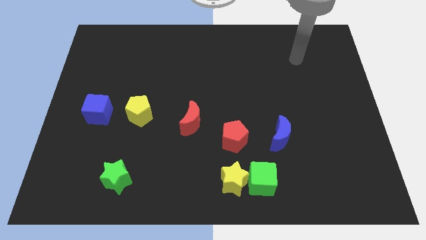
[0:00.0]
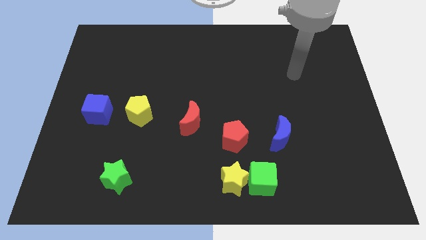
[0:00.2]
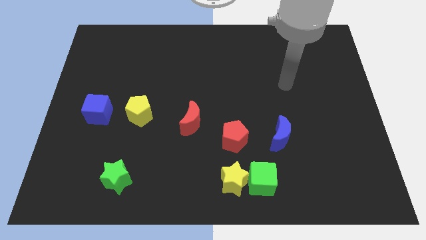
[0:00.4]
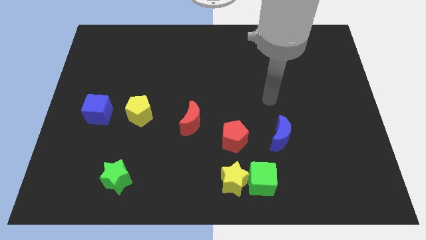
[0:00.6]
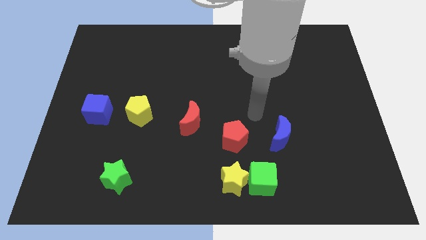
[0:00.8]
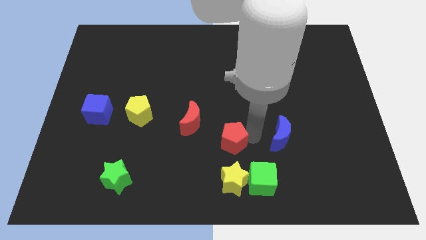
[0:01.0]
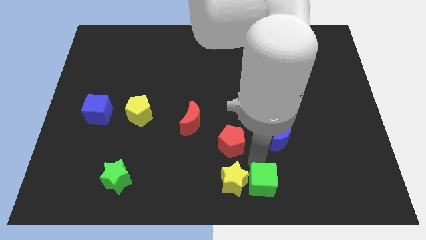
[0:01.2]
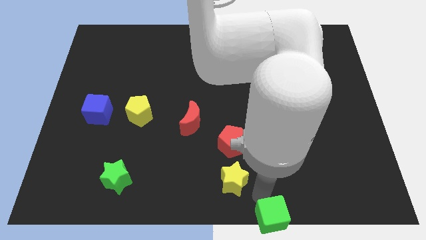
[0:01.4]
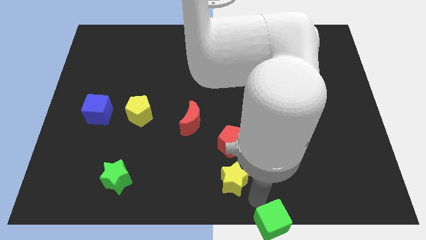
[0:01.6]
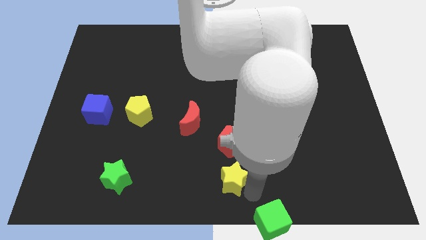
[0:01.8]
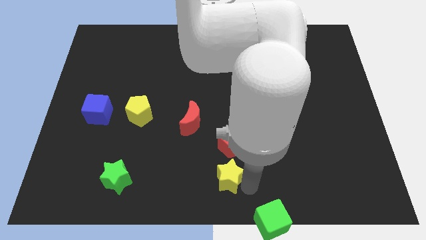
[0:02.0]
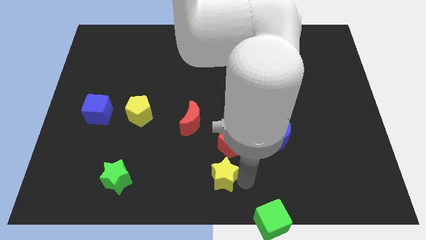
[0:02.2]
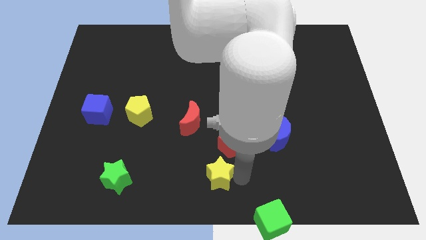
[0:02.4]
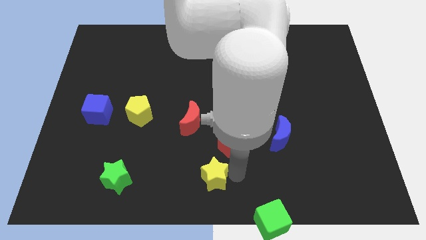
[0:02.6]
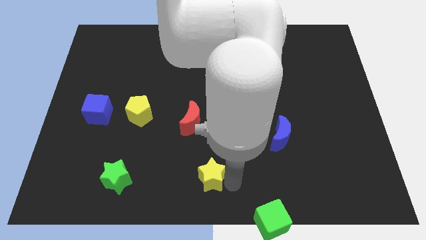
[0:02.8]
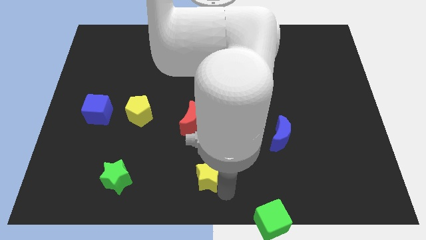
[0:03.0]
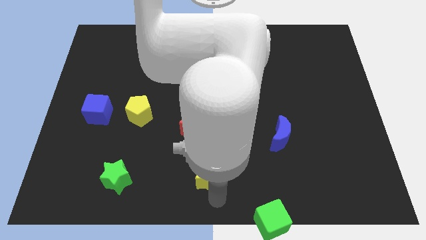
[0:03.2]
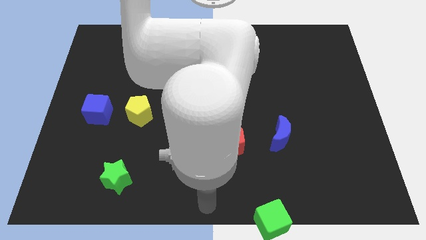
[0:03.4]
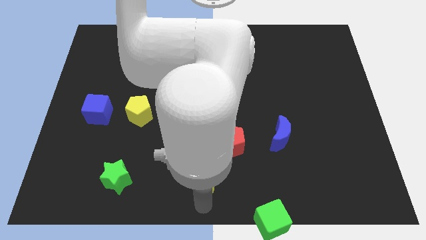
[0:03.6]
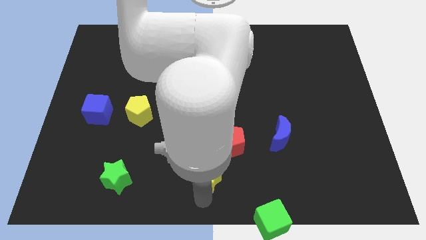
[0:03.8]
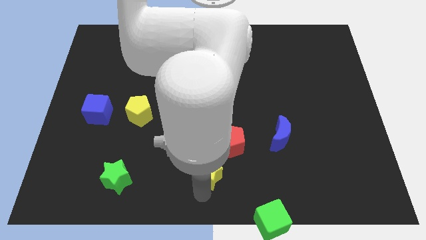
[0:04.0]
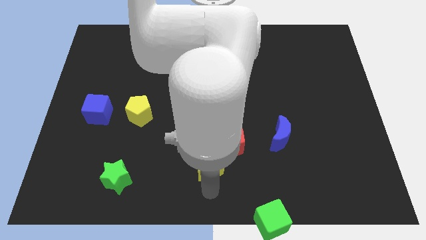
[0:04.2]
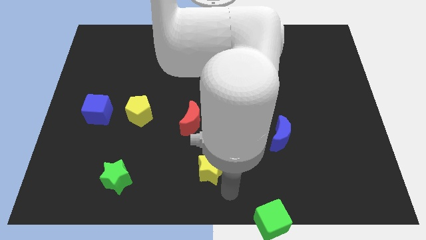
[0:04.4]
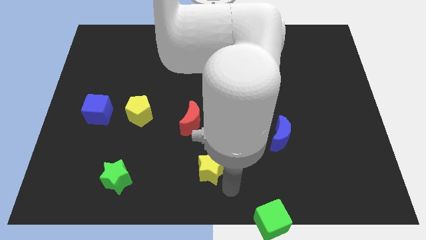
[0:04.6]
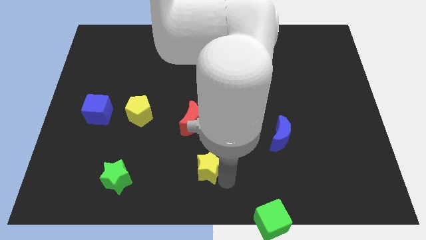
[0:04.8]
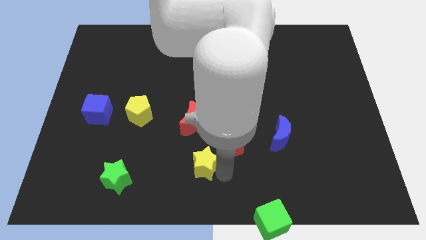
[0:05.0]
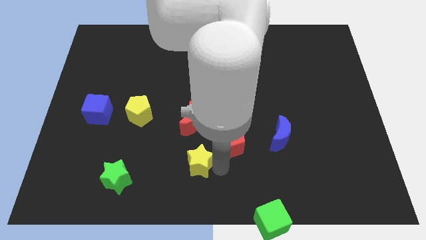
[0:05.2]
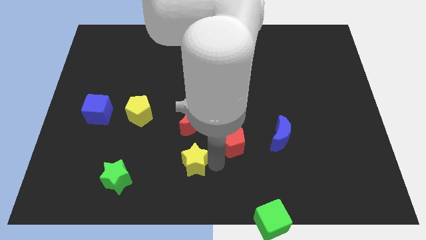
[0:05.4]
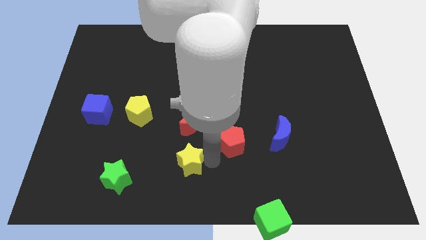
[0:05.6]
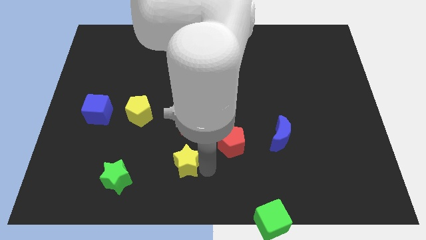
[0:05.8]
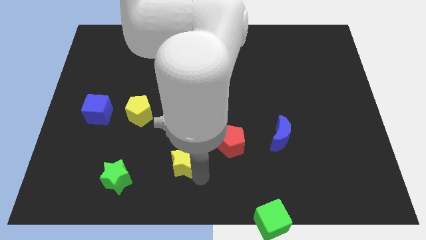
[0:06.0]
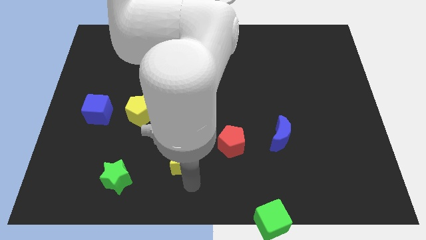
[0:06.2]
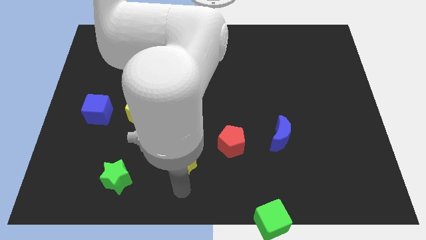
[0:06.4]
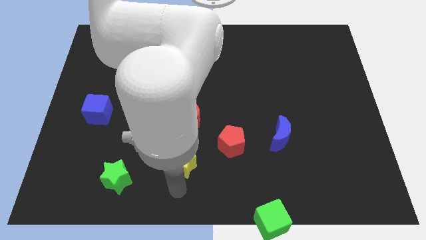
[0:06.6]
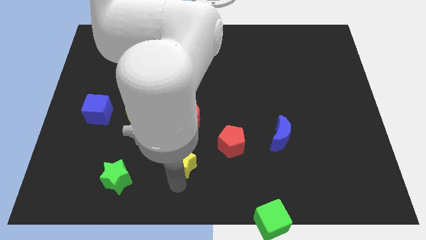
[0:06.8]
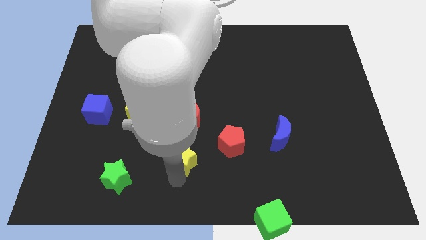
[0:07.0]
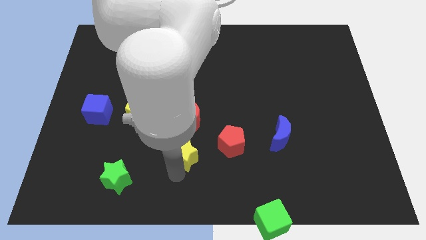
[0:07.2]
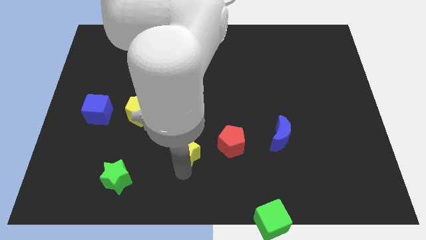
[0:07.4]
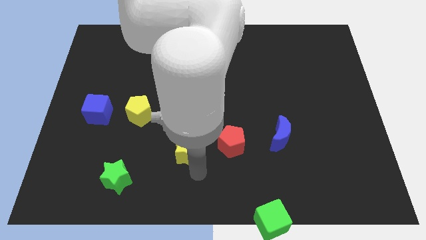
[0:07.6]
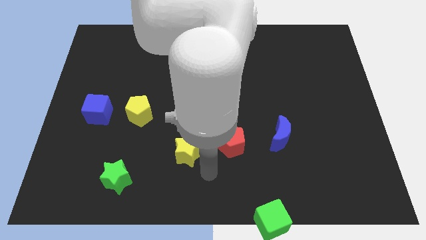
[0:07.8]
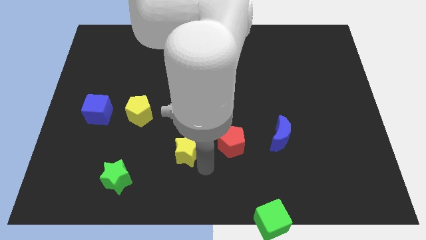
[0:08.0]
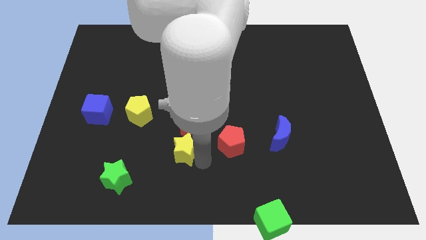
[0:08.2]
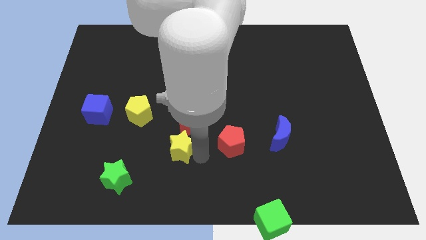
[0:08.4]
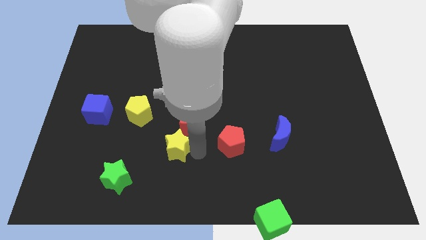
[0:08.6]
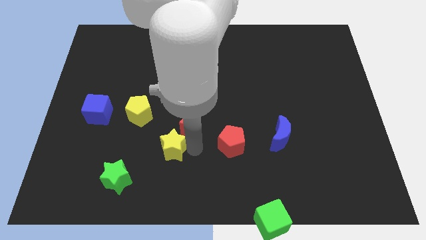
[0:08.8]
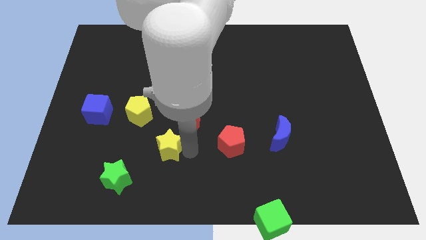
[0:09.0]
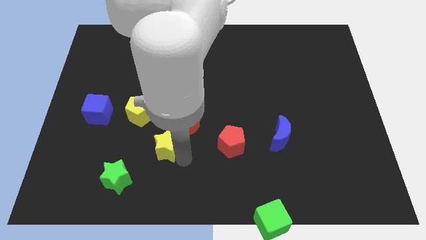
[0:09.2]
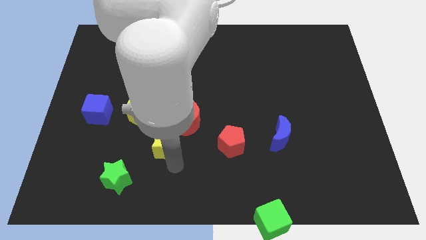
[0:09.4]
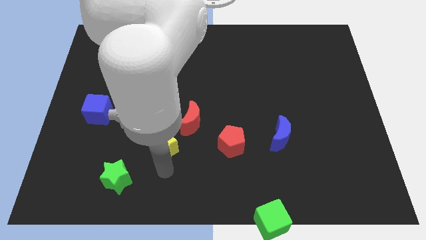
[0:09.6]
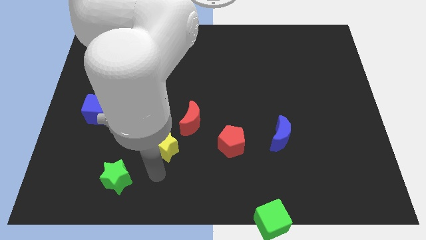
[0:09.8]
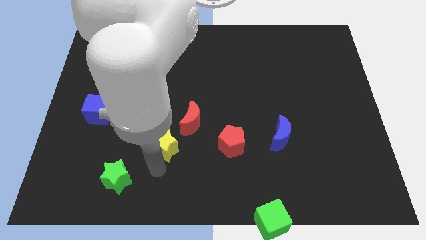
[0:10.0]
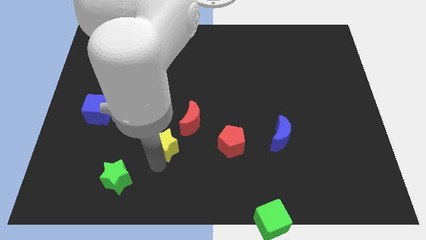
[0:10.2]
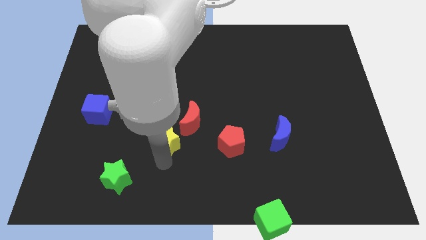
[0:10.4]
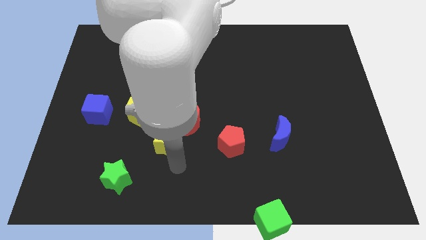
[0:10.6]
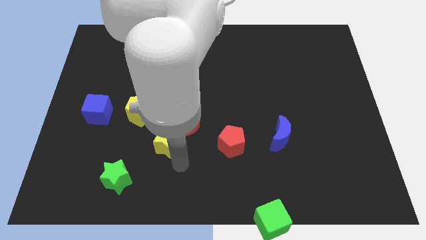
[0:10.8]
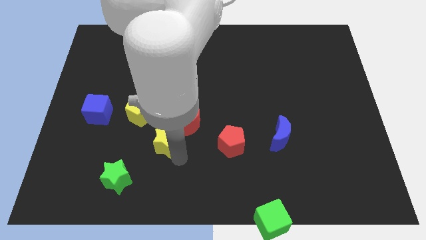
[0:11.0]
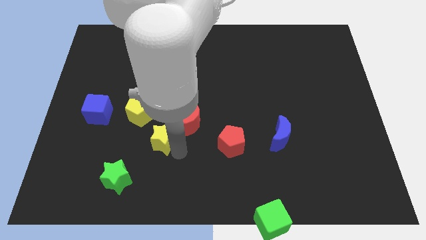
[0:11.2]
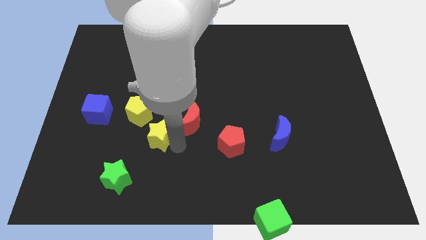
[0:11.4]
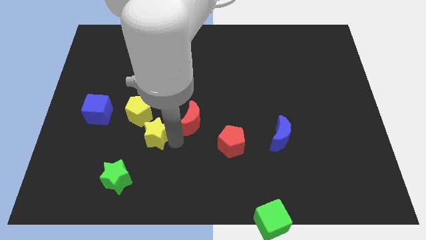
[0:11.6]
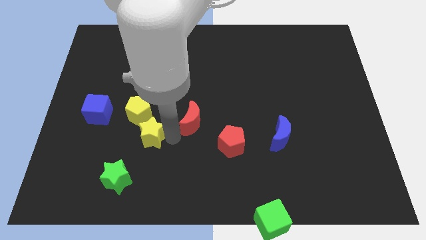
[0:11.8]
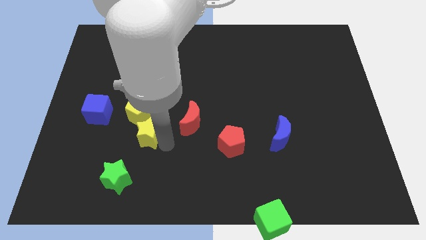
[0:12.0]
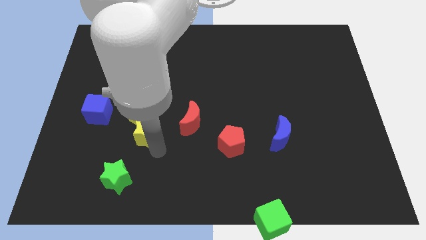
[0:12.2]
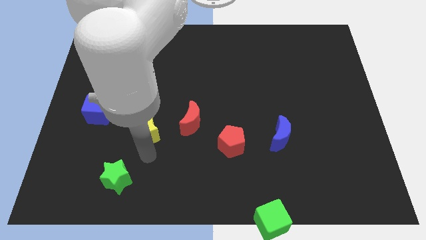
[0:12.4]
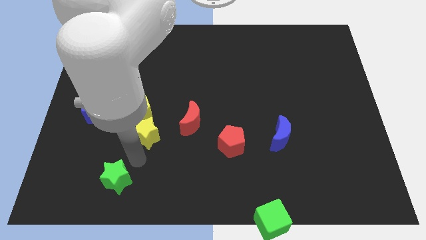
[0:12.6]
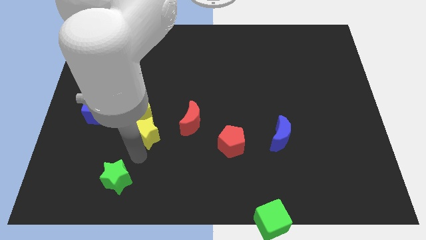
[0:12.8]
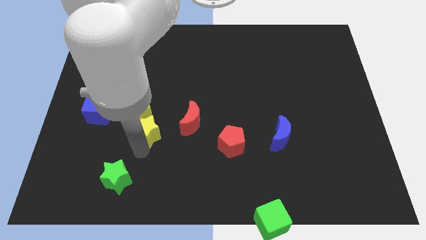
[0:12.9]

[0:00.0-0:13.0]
move the yellow star next to the yellow pentagon

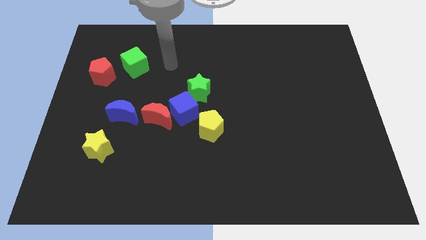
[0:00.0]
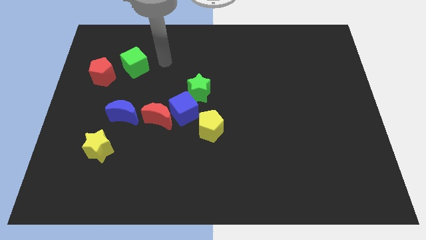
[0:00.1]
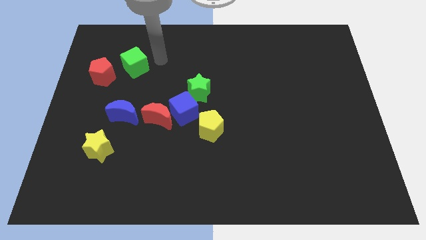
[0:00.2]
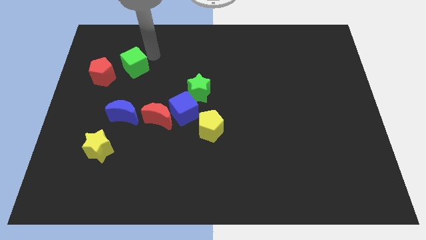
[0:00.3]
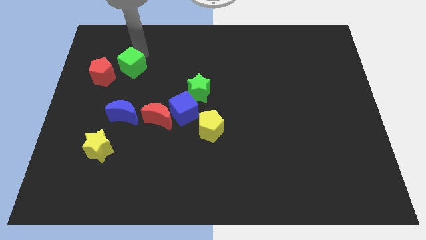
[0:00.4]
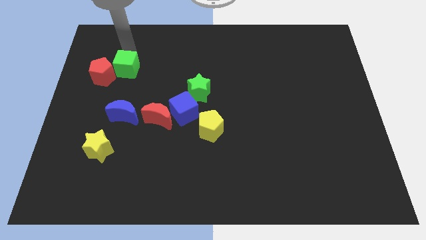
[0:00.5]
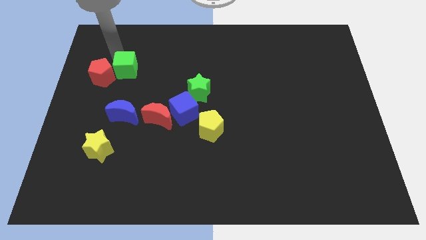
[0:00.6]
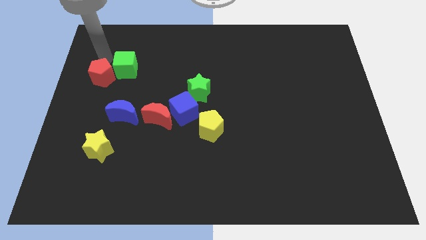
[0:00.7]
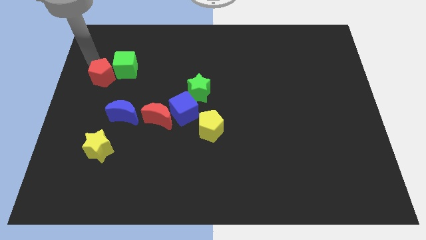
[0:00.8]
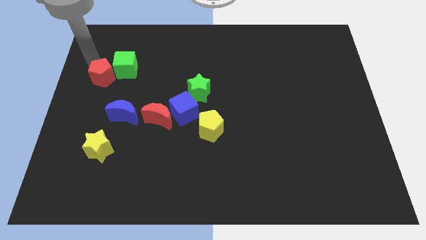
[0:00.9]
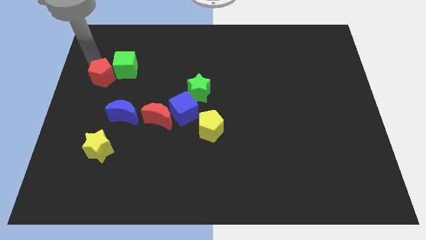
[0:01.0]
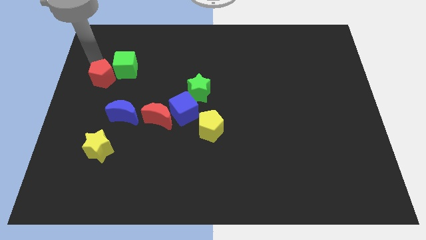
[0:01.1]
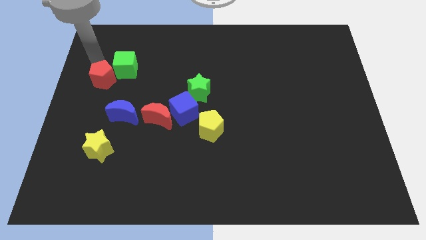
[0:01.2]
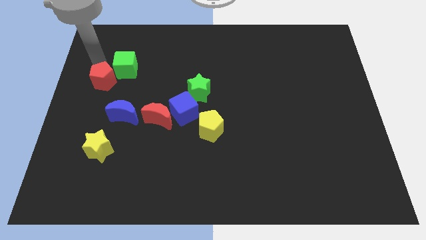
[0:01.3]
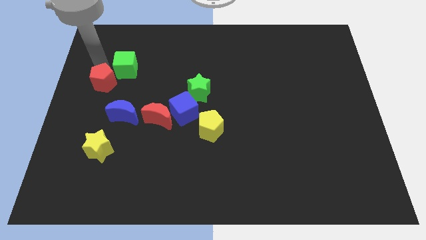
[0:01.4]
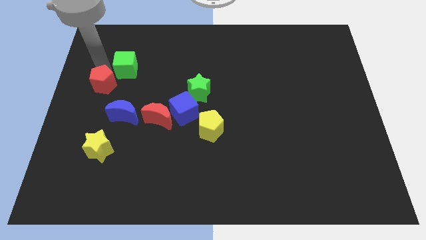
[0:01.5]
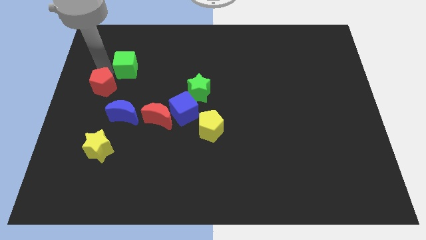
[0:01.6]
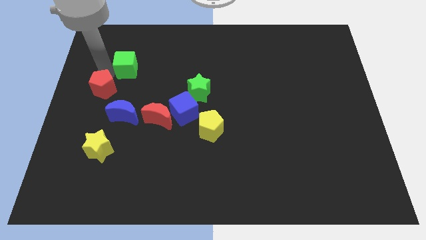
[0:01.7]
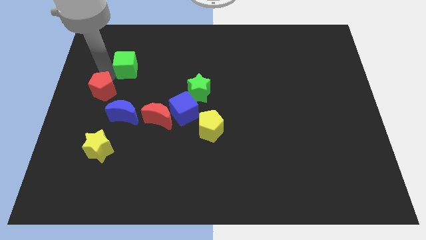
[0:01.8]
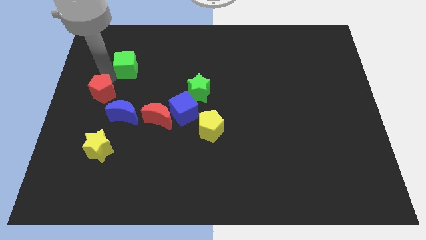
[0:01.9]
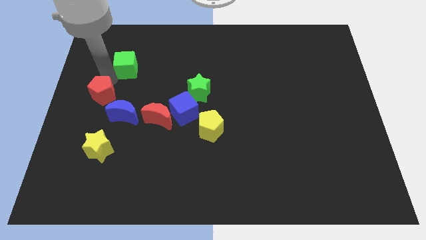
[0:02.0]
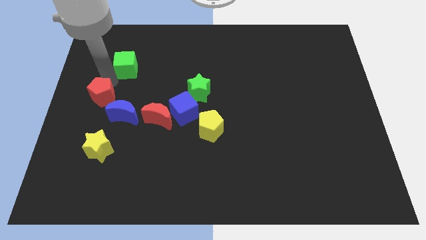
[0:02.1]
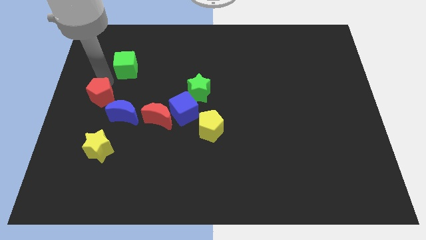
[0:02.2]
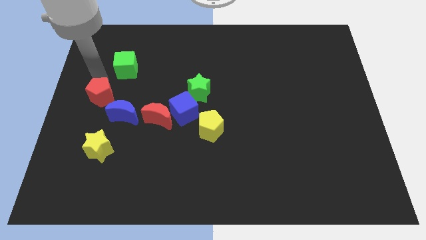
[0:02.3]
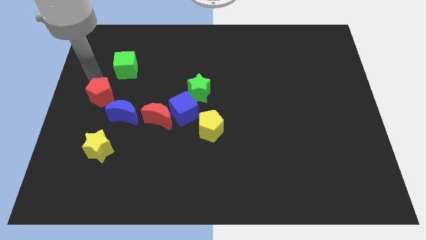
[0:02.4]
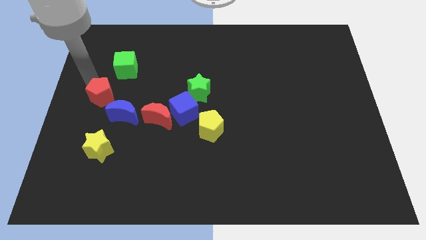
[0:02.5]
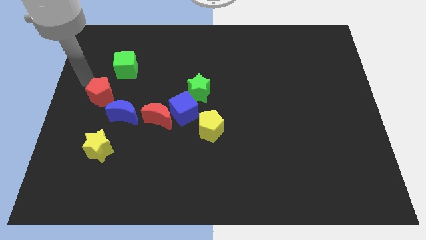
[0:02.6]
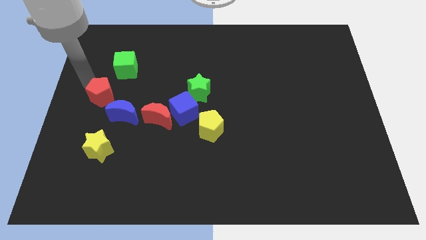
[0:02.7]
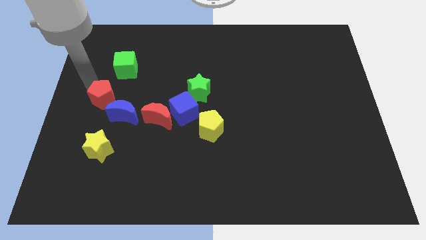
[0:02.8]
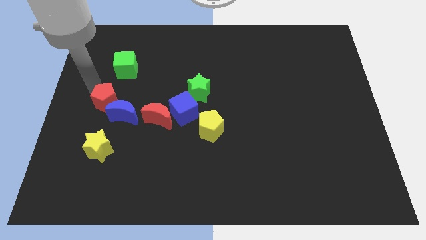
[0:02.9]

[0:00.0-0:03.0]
move the red pentagon next to the blue moon
